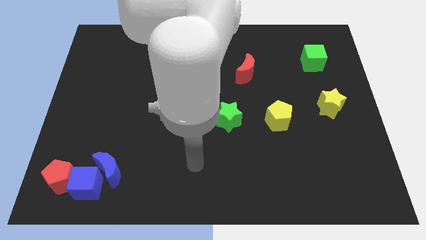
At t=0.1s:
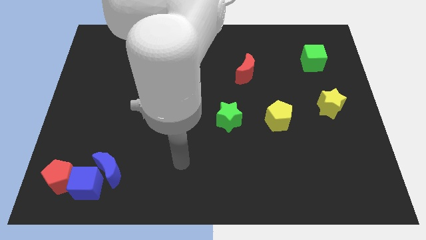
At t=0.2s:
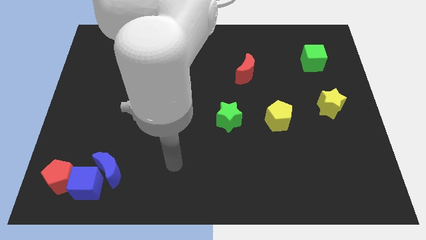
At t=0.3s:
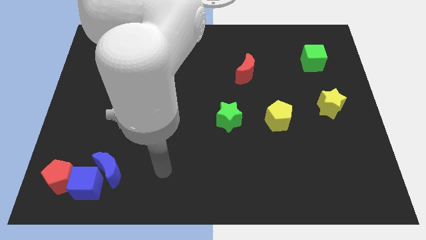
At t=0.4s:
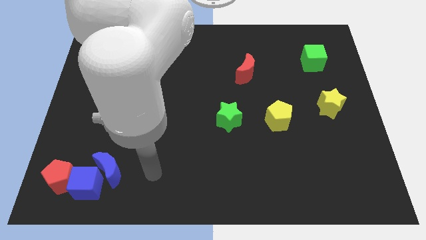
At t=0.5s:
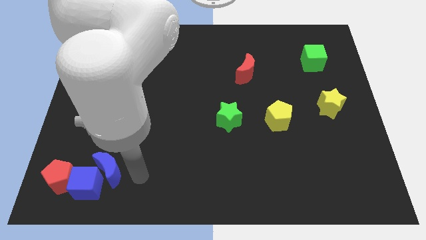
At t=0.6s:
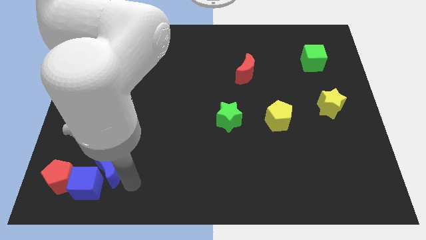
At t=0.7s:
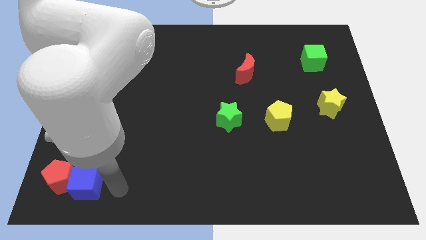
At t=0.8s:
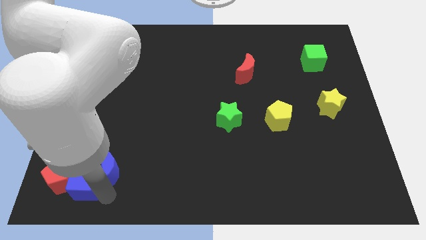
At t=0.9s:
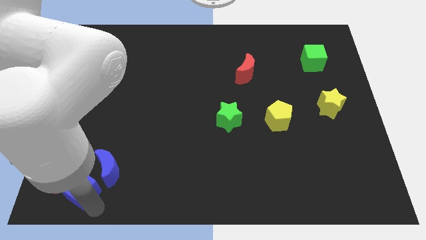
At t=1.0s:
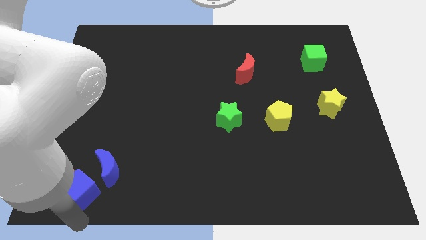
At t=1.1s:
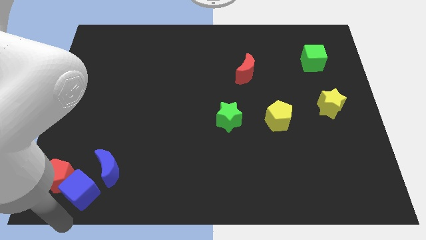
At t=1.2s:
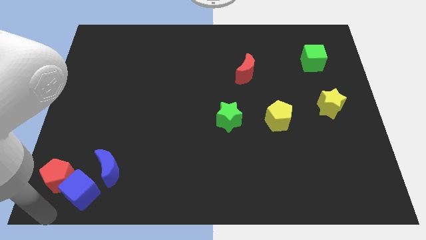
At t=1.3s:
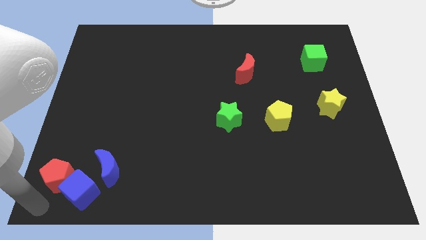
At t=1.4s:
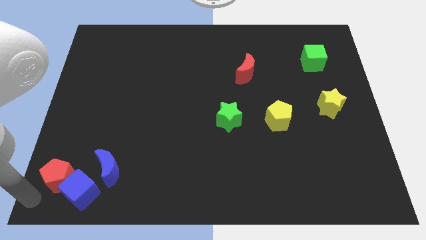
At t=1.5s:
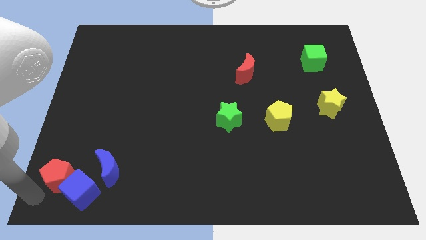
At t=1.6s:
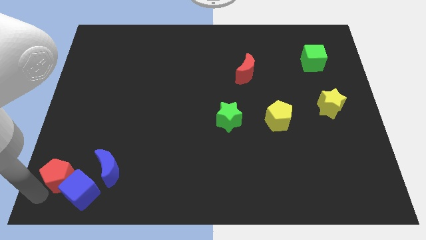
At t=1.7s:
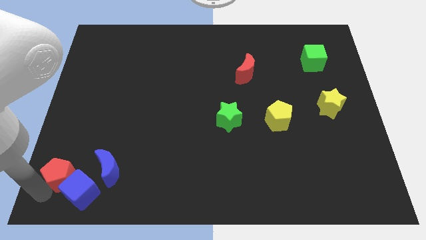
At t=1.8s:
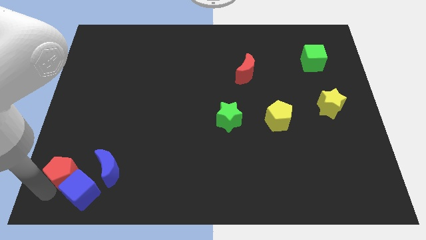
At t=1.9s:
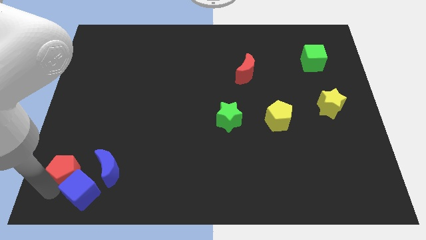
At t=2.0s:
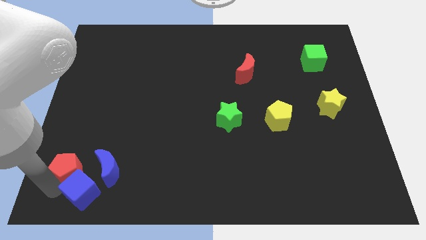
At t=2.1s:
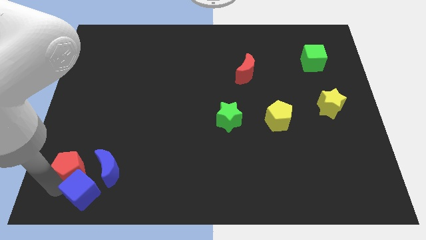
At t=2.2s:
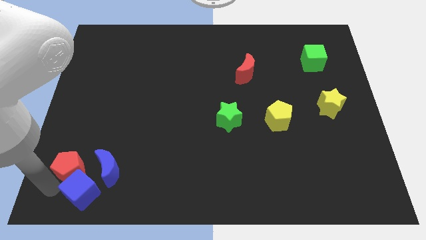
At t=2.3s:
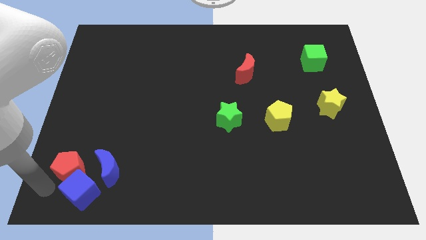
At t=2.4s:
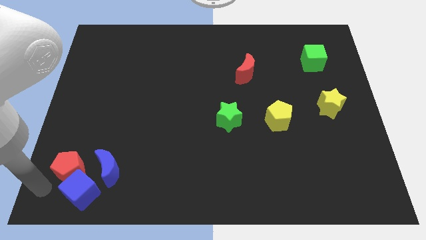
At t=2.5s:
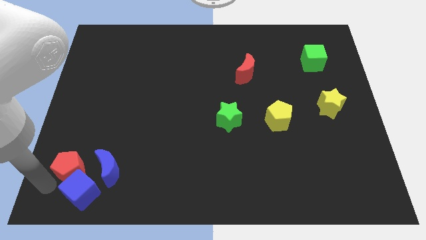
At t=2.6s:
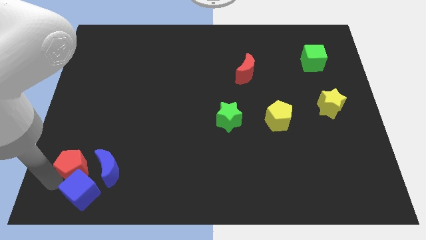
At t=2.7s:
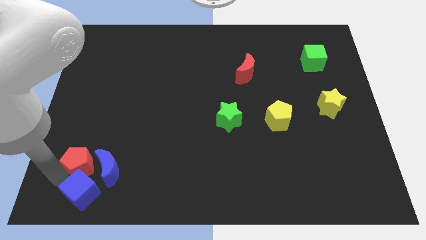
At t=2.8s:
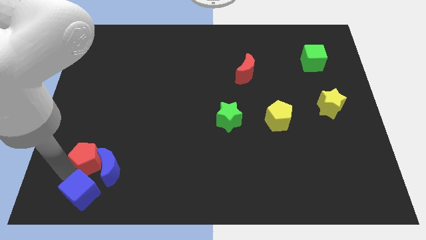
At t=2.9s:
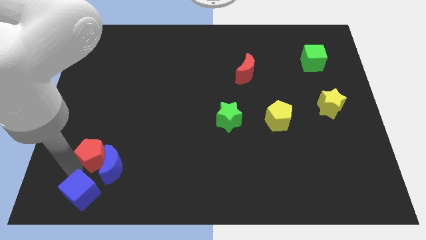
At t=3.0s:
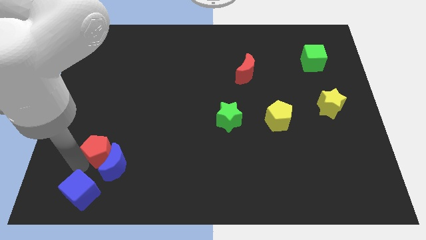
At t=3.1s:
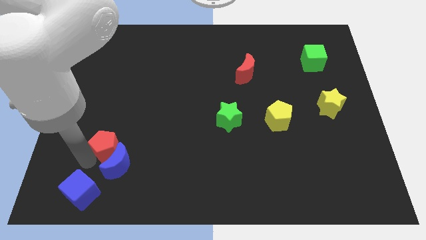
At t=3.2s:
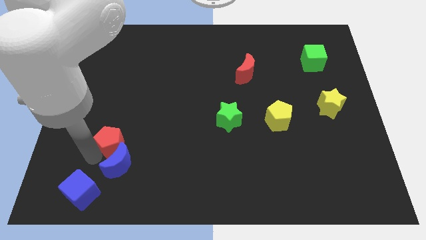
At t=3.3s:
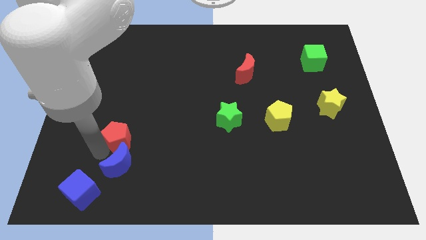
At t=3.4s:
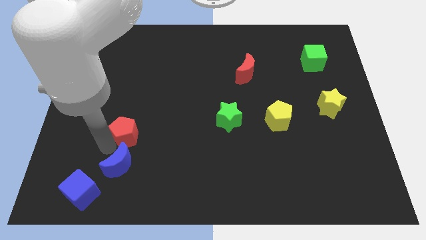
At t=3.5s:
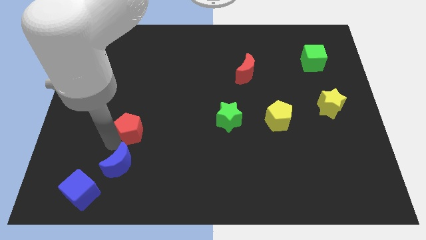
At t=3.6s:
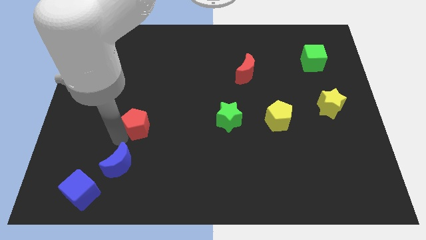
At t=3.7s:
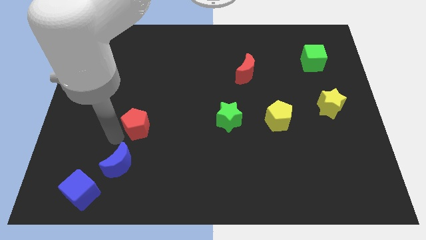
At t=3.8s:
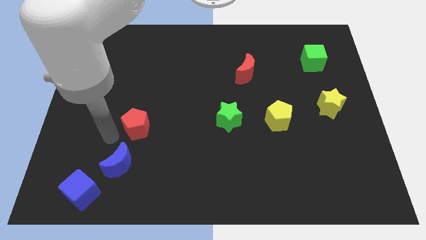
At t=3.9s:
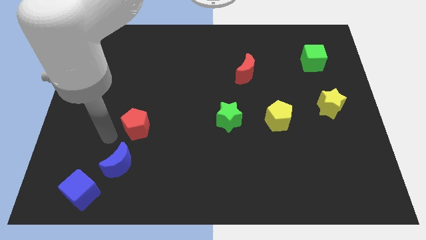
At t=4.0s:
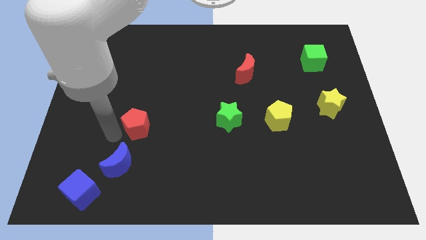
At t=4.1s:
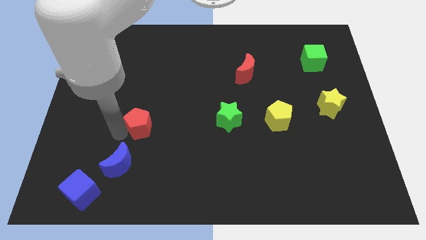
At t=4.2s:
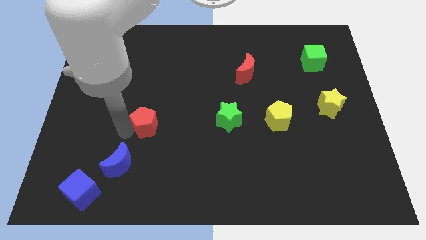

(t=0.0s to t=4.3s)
slide the red pentagon diagonally upwards and to the right

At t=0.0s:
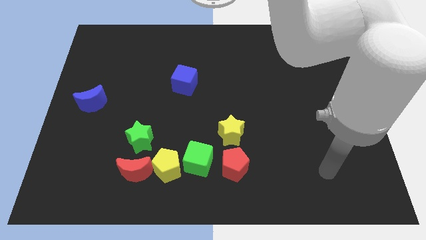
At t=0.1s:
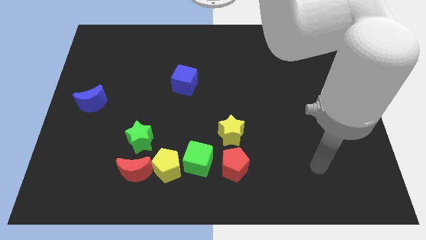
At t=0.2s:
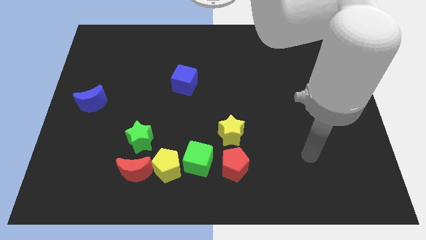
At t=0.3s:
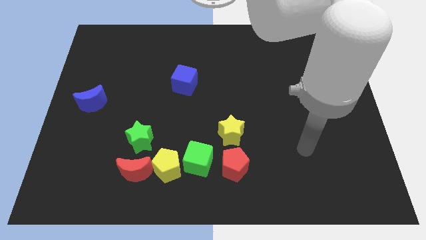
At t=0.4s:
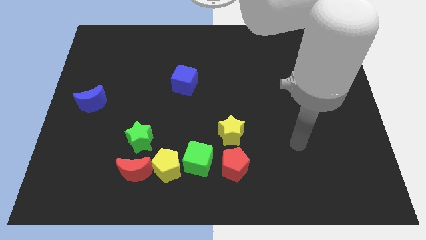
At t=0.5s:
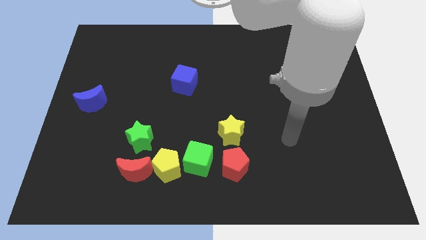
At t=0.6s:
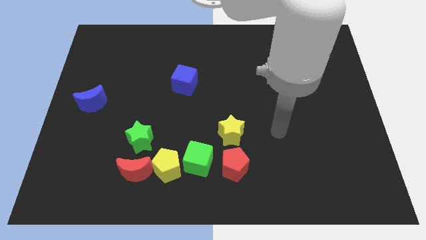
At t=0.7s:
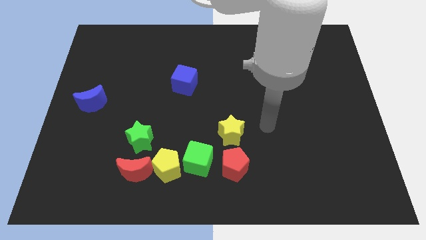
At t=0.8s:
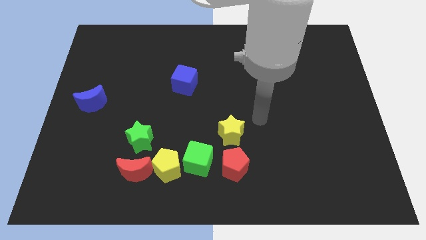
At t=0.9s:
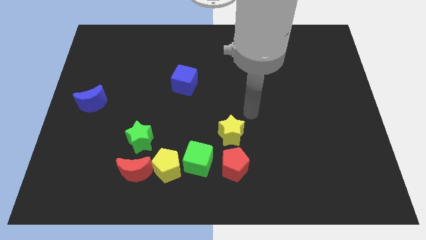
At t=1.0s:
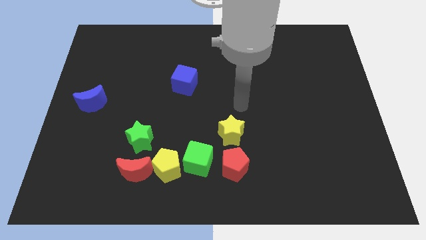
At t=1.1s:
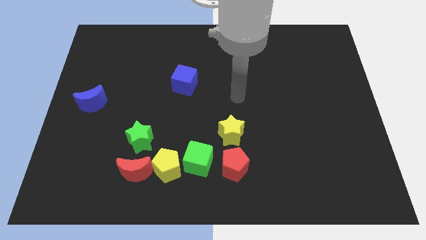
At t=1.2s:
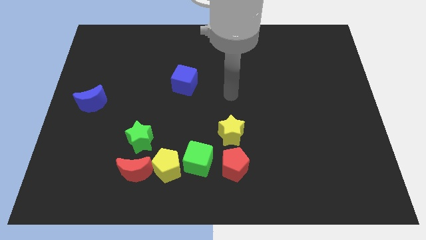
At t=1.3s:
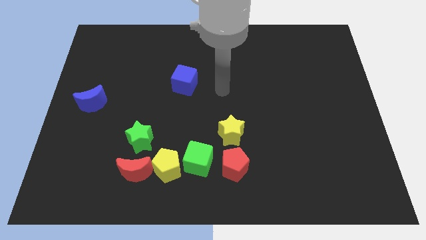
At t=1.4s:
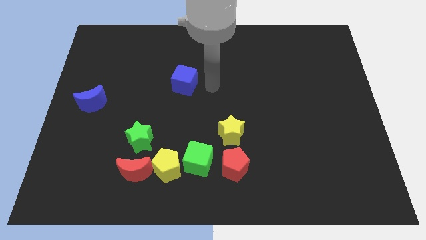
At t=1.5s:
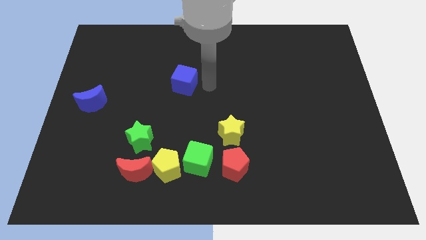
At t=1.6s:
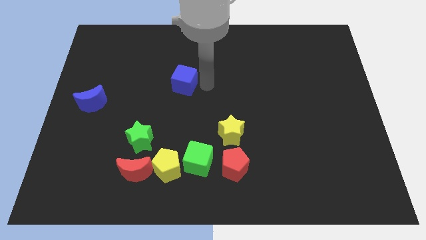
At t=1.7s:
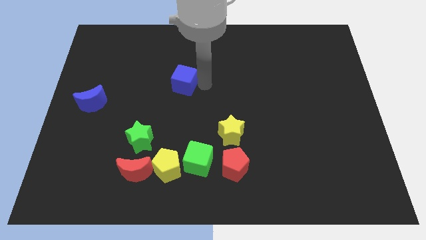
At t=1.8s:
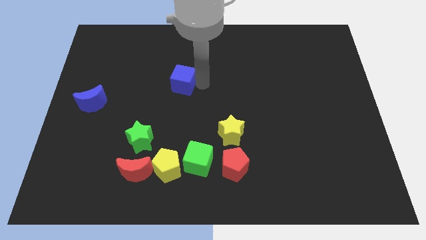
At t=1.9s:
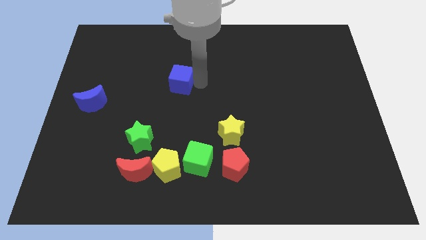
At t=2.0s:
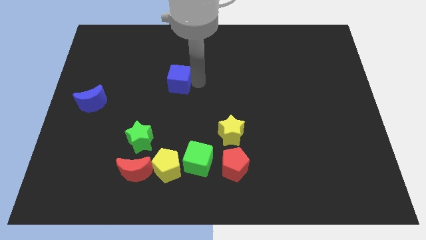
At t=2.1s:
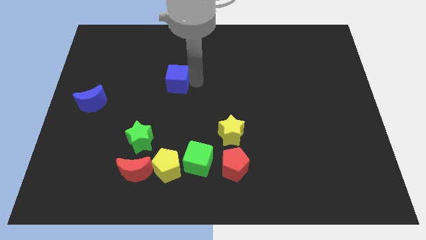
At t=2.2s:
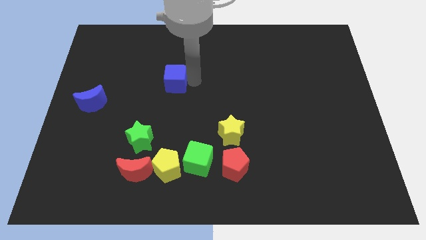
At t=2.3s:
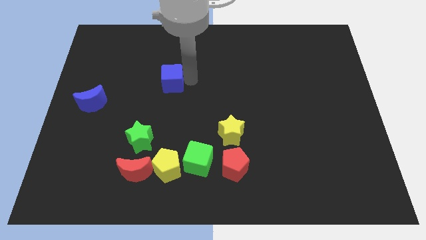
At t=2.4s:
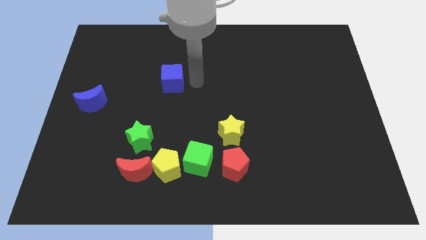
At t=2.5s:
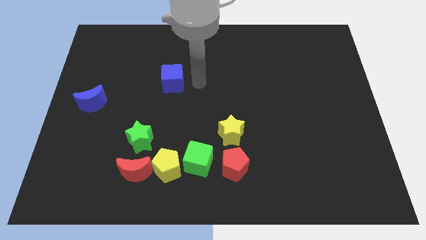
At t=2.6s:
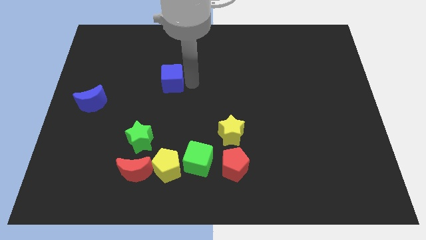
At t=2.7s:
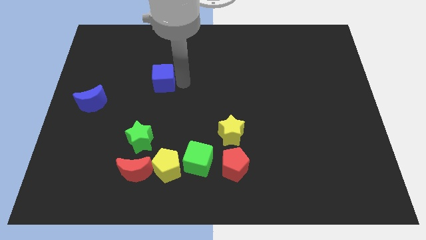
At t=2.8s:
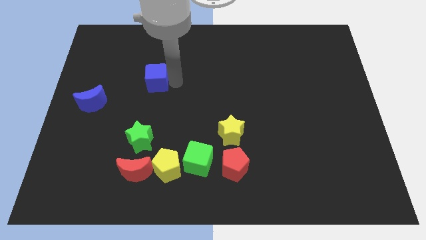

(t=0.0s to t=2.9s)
slightly slide the blue cube left

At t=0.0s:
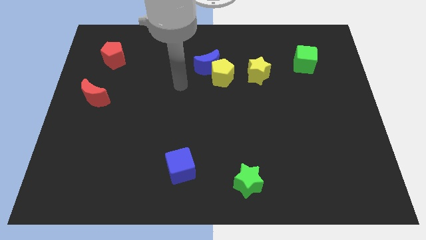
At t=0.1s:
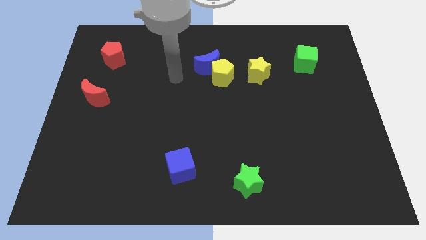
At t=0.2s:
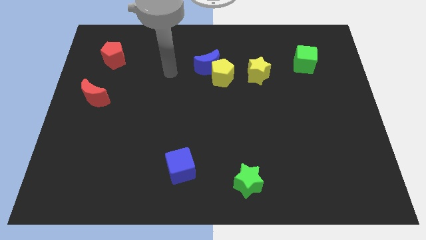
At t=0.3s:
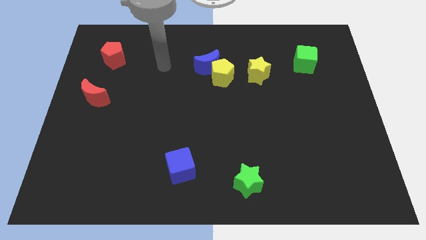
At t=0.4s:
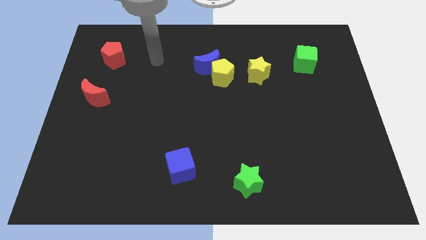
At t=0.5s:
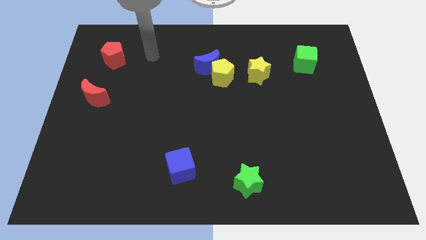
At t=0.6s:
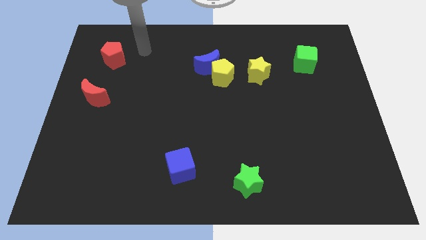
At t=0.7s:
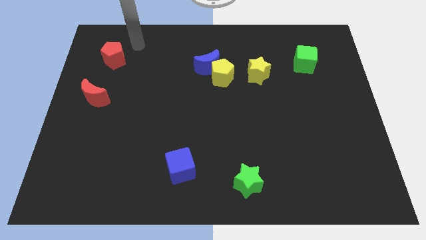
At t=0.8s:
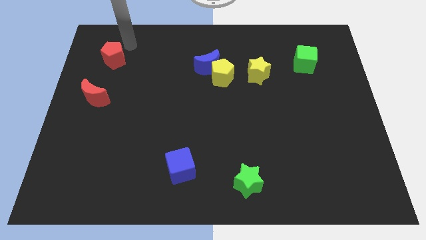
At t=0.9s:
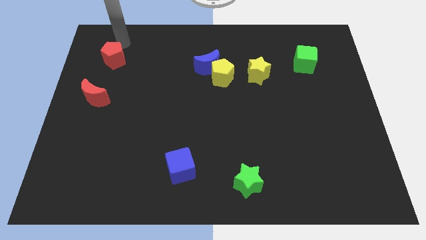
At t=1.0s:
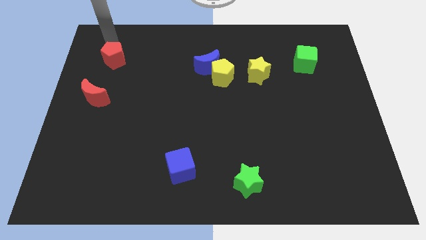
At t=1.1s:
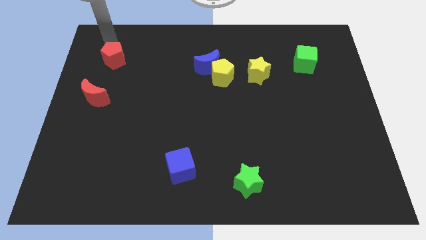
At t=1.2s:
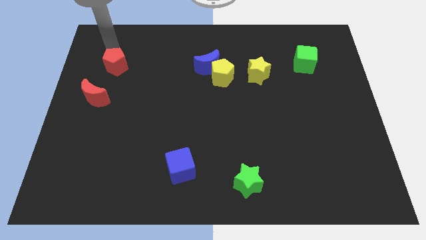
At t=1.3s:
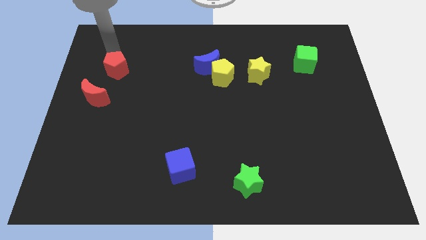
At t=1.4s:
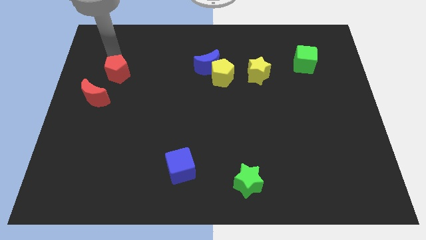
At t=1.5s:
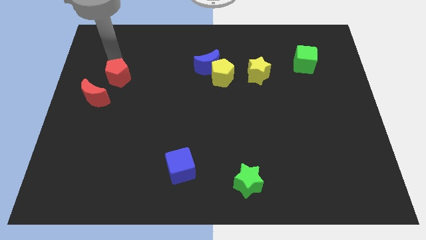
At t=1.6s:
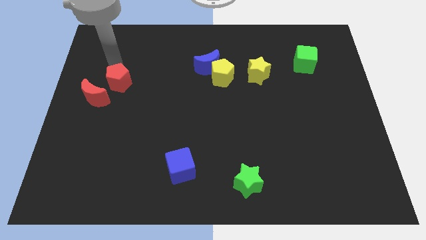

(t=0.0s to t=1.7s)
move the red pentagon a bit down and then right
